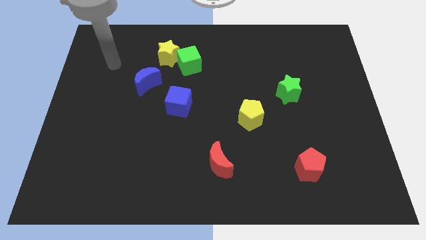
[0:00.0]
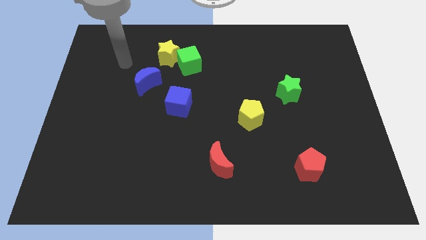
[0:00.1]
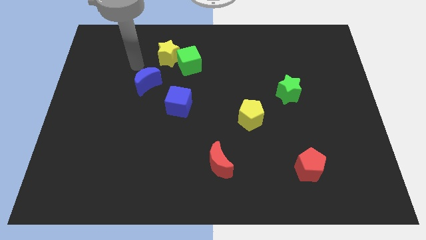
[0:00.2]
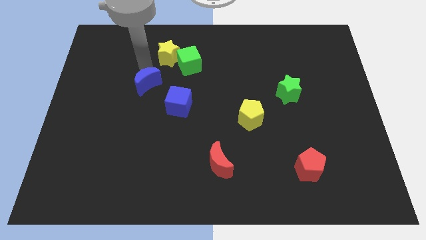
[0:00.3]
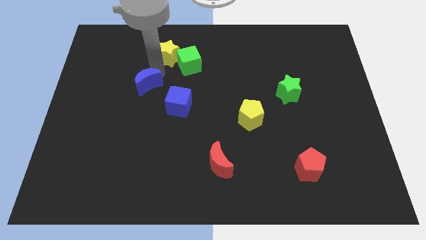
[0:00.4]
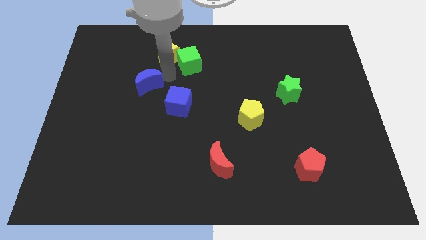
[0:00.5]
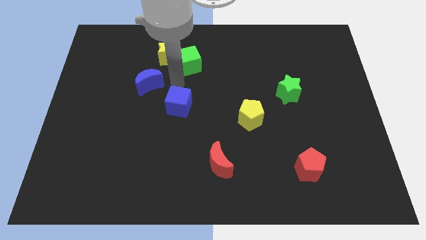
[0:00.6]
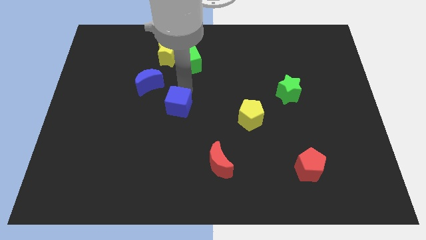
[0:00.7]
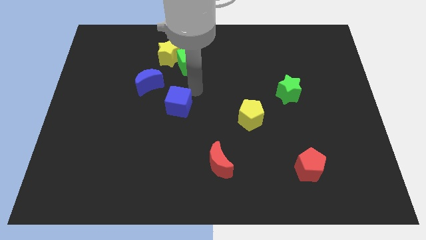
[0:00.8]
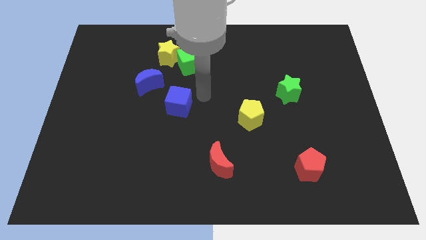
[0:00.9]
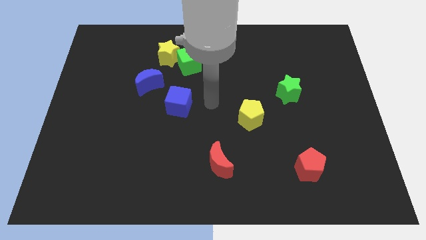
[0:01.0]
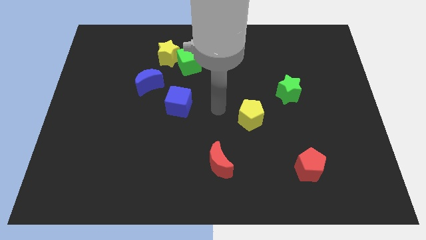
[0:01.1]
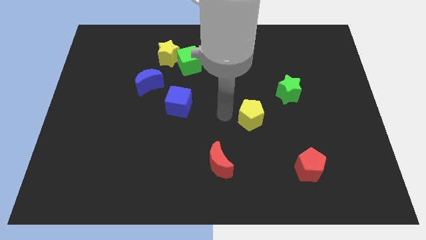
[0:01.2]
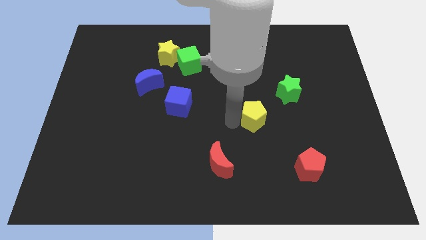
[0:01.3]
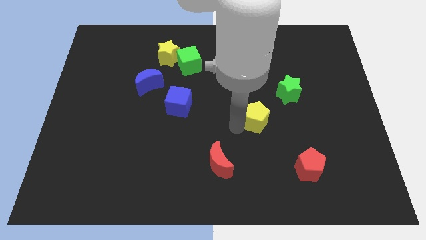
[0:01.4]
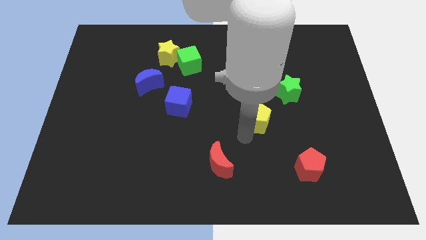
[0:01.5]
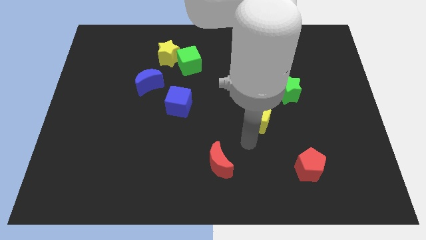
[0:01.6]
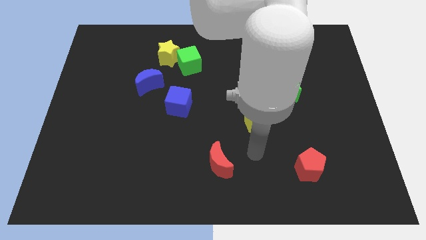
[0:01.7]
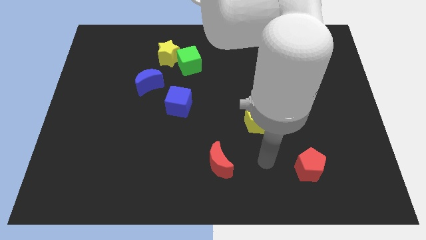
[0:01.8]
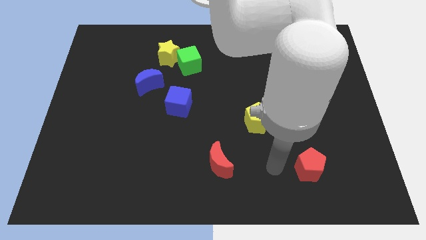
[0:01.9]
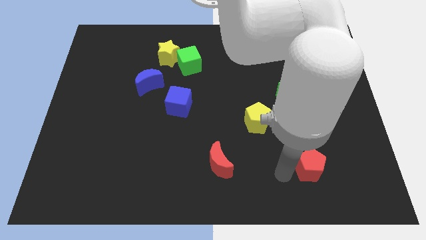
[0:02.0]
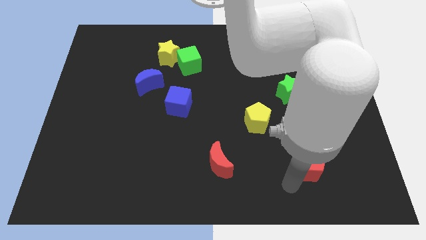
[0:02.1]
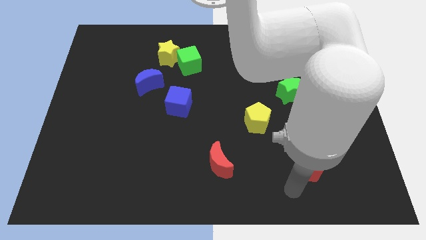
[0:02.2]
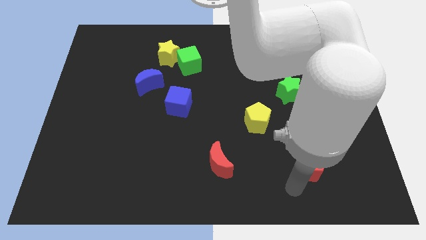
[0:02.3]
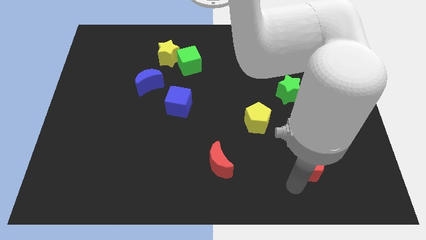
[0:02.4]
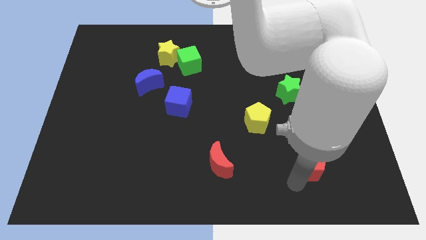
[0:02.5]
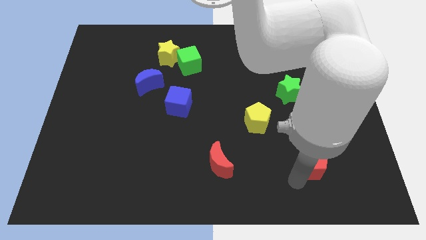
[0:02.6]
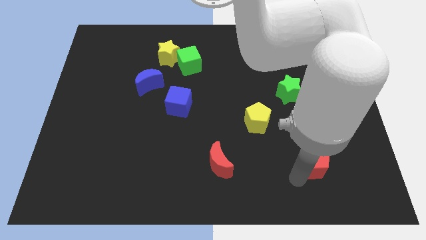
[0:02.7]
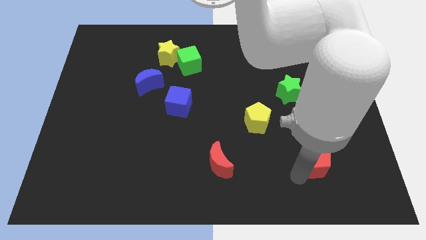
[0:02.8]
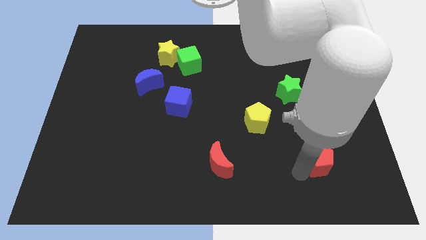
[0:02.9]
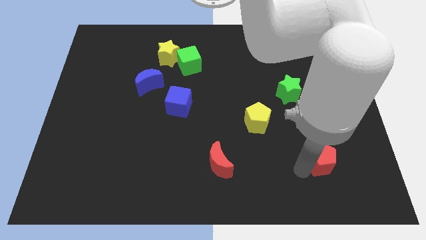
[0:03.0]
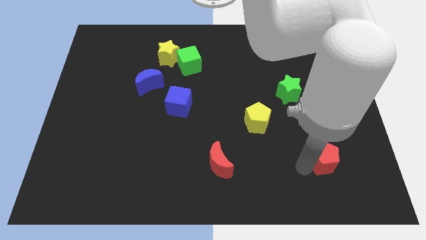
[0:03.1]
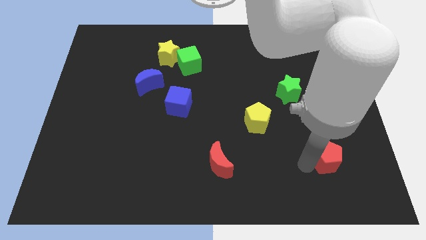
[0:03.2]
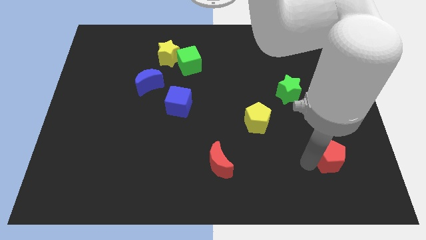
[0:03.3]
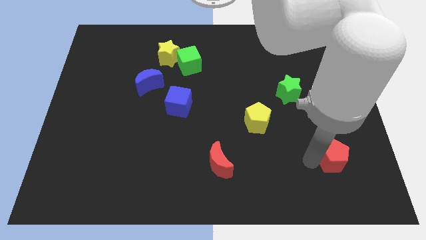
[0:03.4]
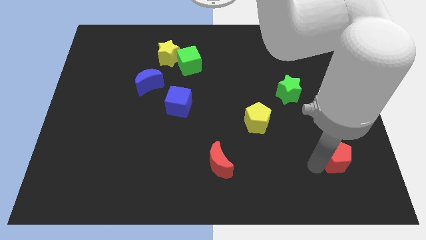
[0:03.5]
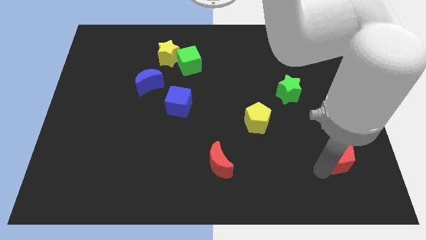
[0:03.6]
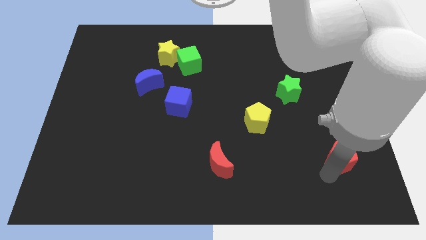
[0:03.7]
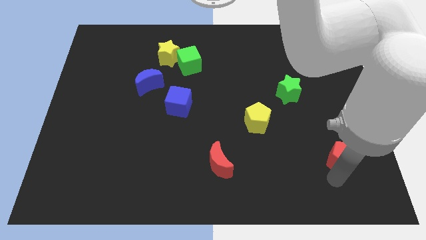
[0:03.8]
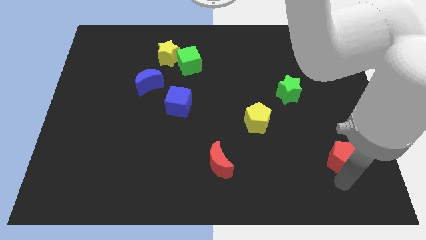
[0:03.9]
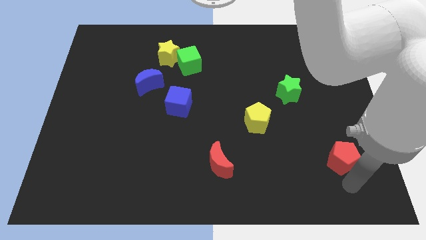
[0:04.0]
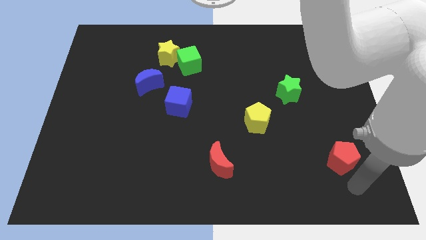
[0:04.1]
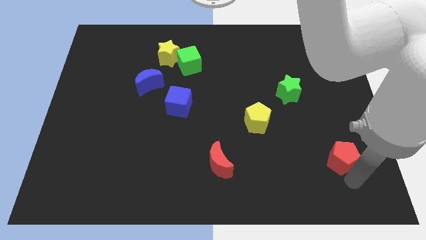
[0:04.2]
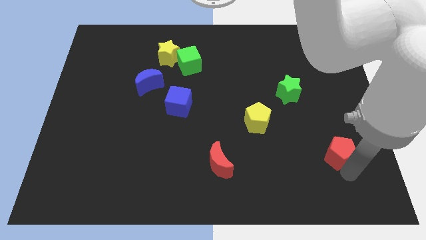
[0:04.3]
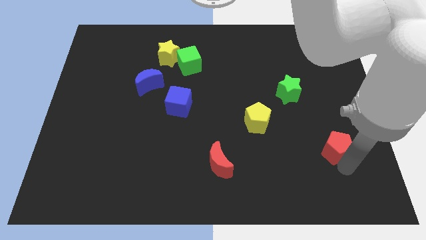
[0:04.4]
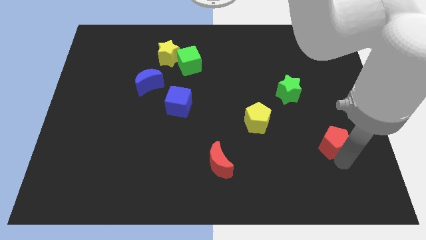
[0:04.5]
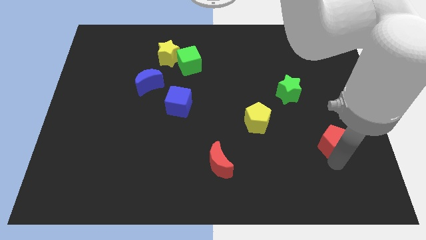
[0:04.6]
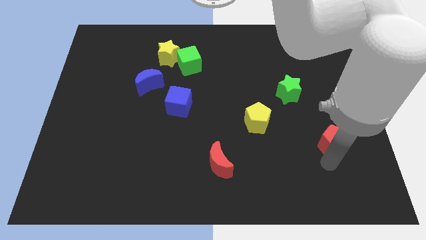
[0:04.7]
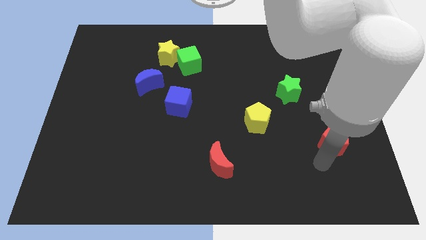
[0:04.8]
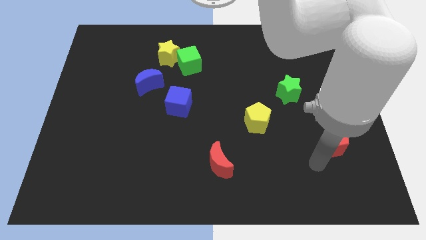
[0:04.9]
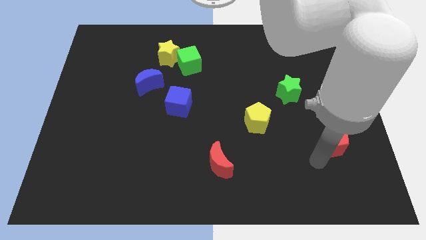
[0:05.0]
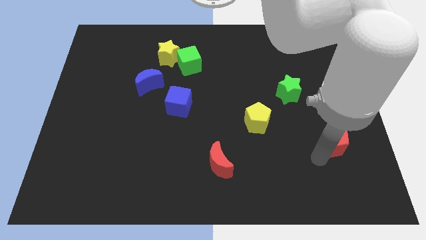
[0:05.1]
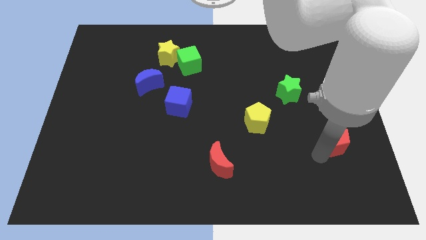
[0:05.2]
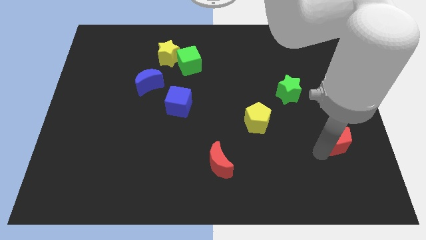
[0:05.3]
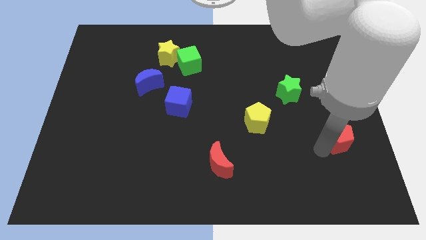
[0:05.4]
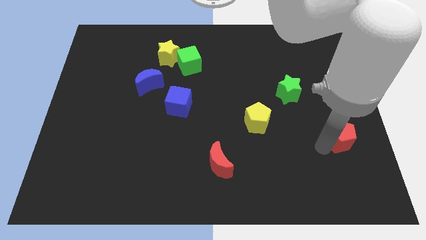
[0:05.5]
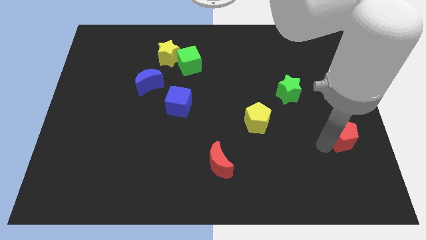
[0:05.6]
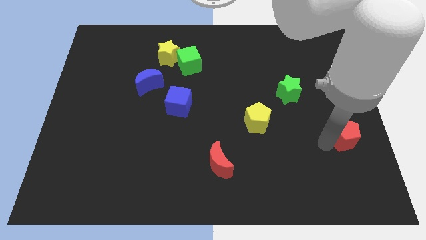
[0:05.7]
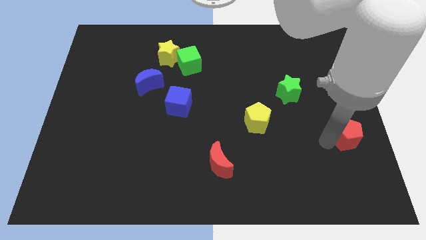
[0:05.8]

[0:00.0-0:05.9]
put the red pentagon to the center right

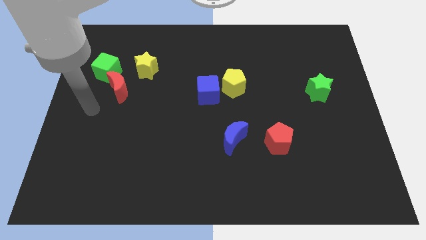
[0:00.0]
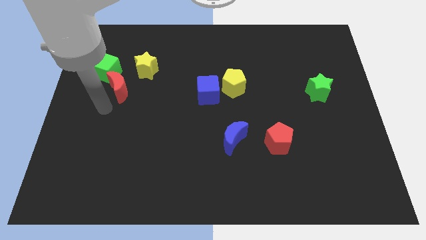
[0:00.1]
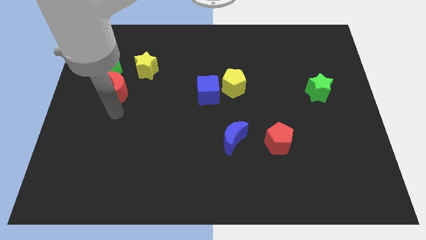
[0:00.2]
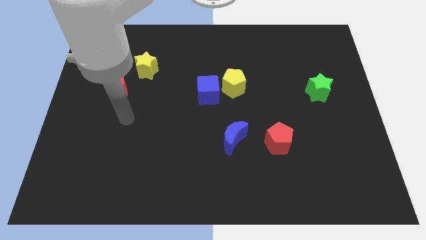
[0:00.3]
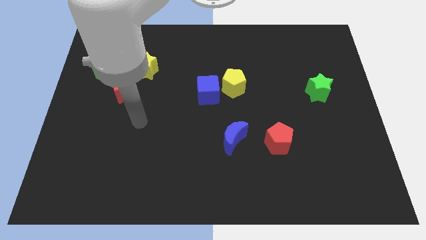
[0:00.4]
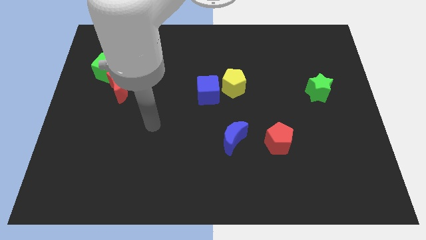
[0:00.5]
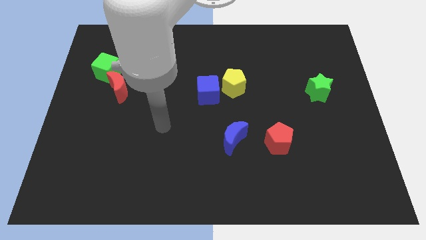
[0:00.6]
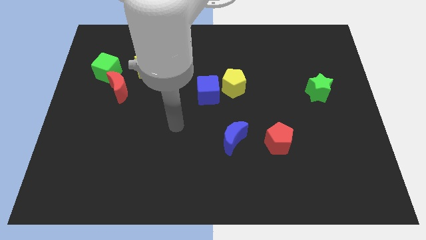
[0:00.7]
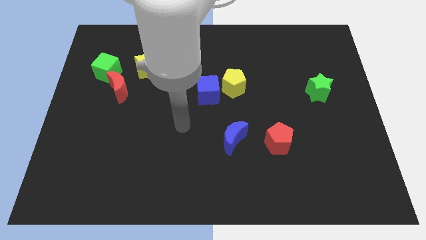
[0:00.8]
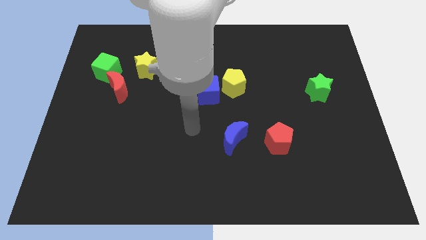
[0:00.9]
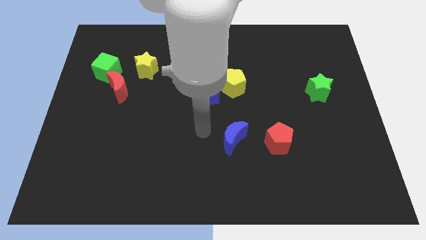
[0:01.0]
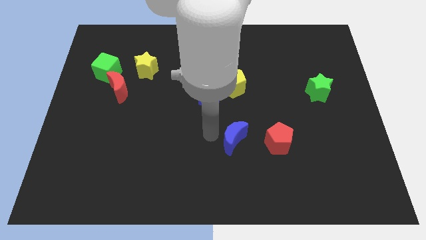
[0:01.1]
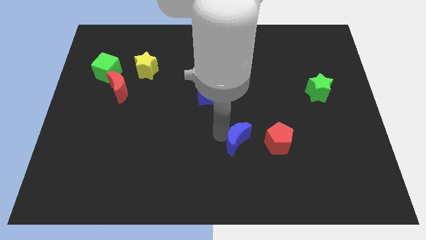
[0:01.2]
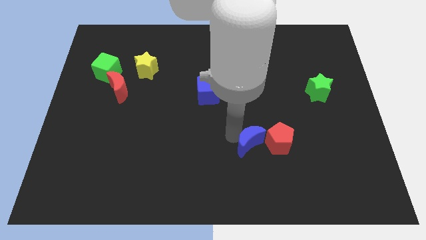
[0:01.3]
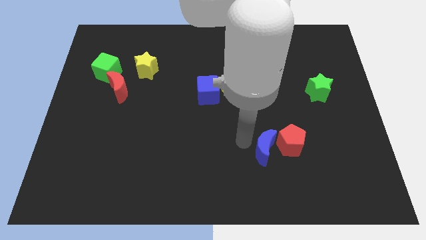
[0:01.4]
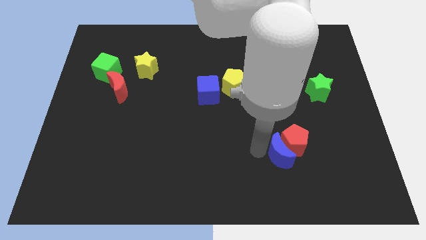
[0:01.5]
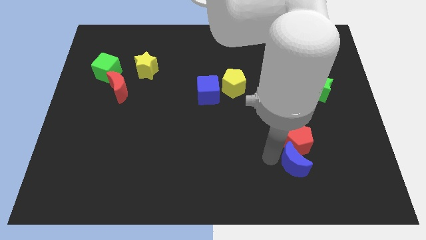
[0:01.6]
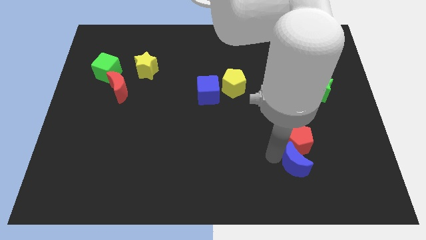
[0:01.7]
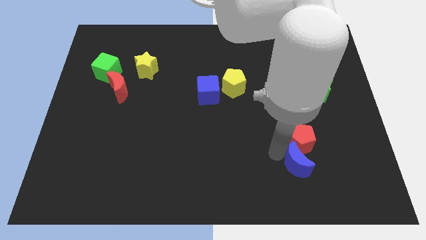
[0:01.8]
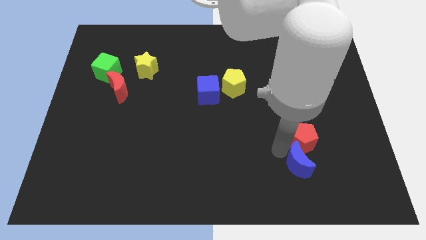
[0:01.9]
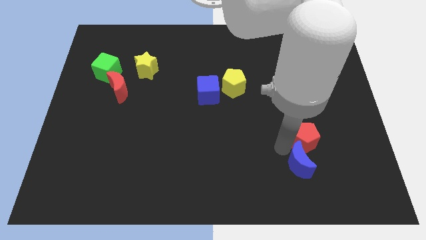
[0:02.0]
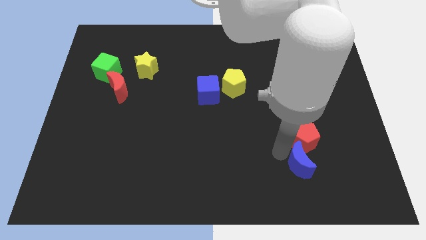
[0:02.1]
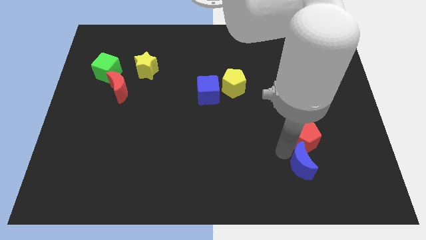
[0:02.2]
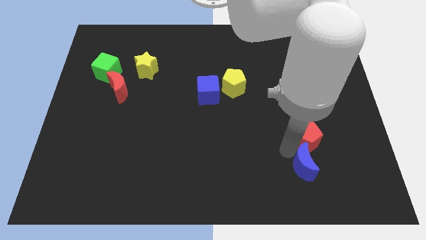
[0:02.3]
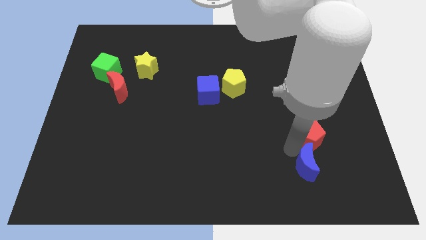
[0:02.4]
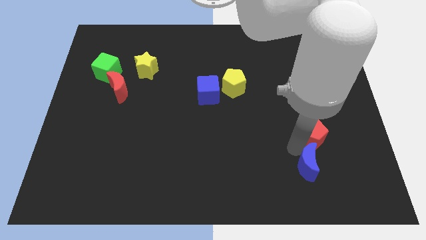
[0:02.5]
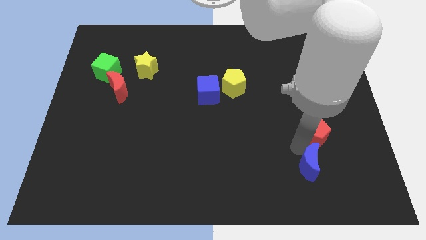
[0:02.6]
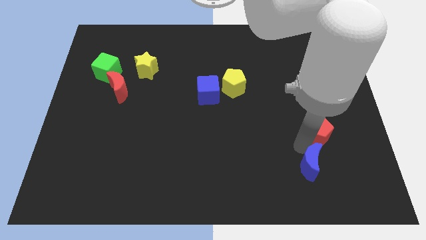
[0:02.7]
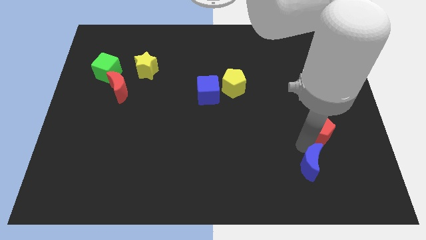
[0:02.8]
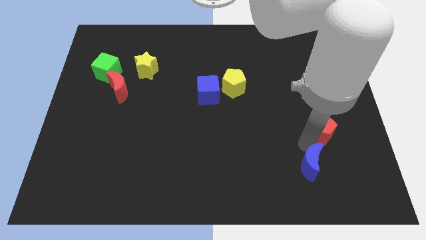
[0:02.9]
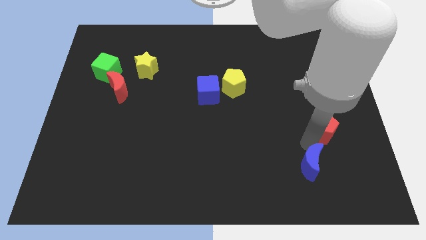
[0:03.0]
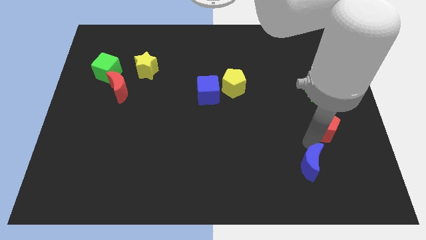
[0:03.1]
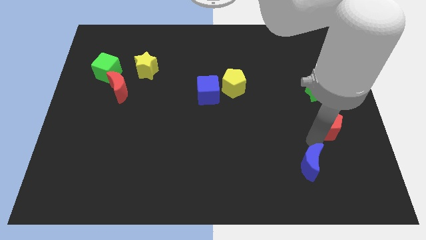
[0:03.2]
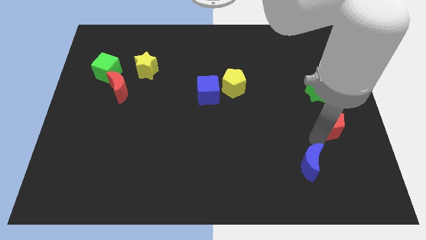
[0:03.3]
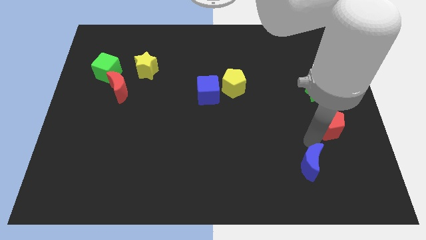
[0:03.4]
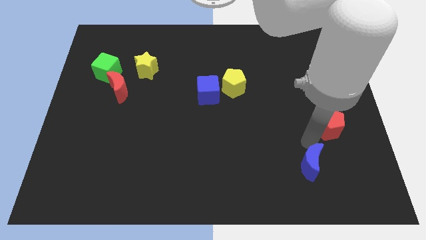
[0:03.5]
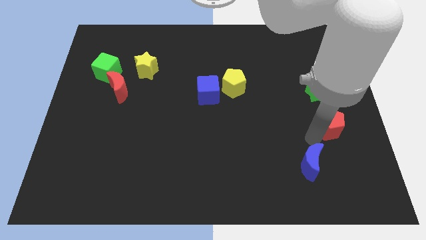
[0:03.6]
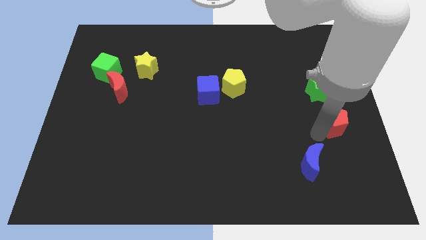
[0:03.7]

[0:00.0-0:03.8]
slide the red pentagon to the right side of the board
